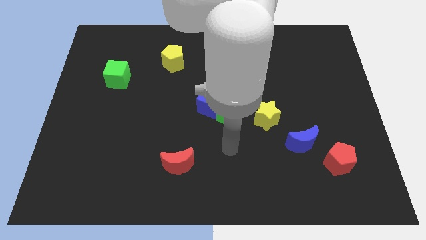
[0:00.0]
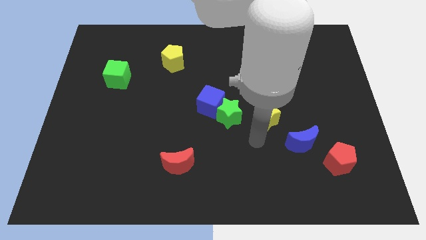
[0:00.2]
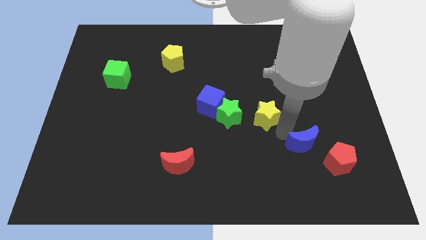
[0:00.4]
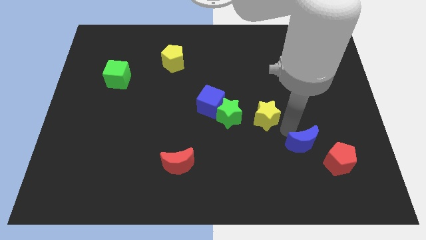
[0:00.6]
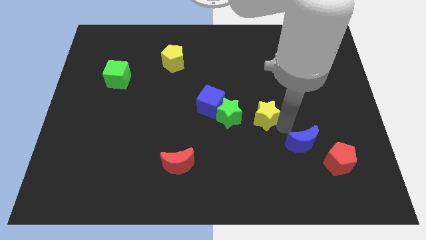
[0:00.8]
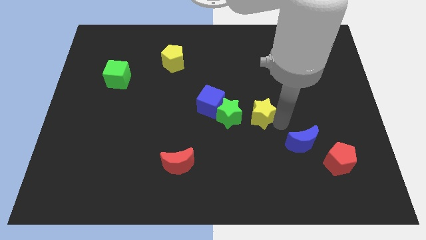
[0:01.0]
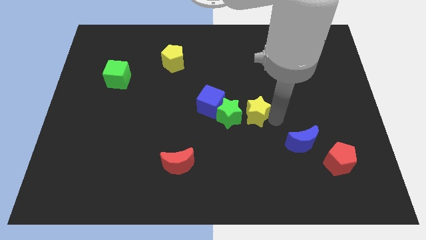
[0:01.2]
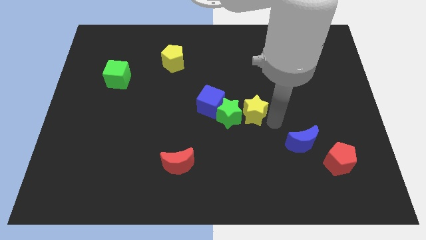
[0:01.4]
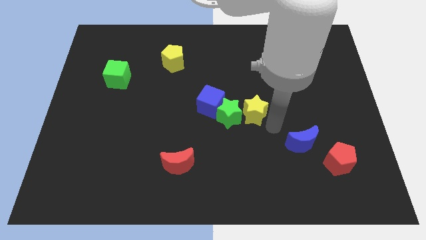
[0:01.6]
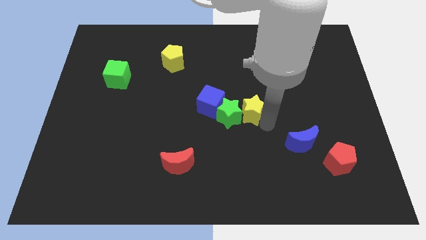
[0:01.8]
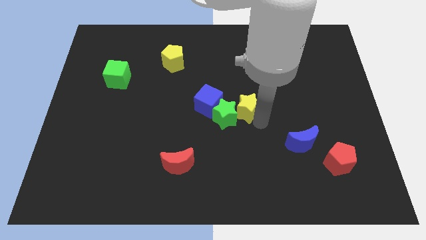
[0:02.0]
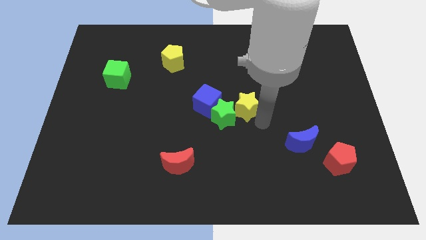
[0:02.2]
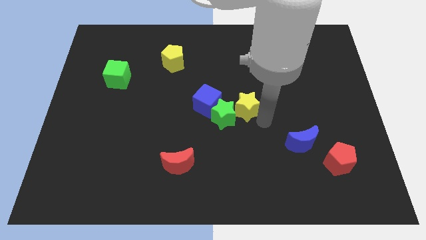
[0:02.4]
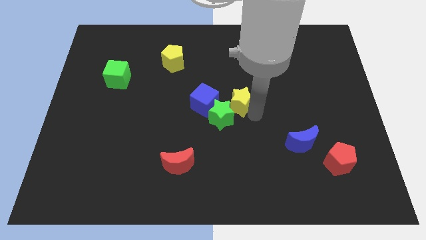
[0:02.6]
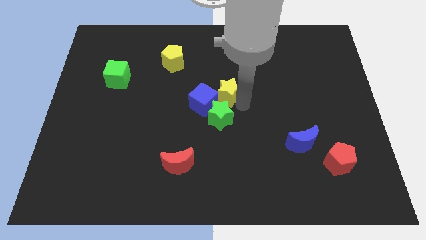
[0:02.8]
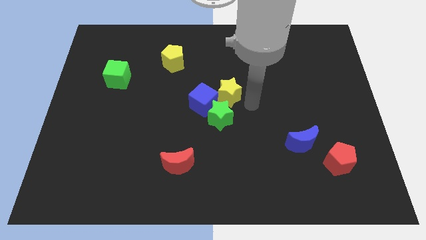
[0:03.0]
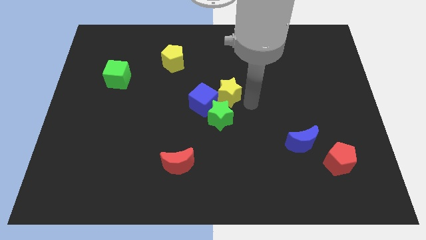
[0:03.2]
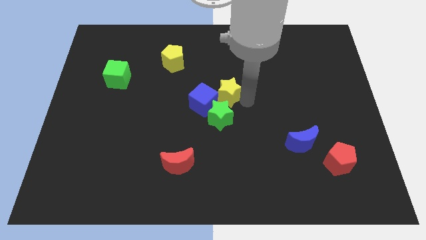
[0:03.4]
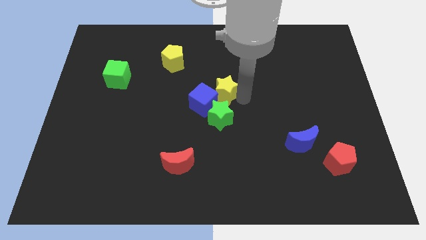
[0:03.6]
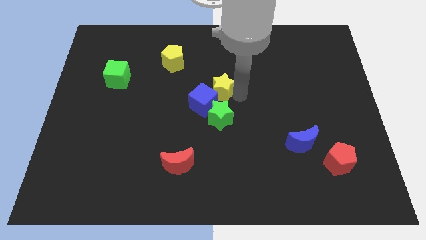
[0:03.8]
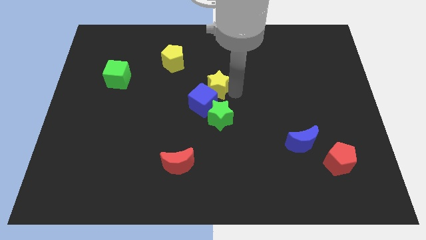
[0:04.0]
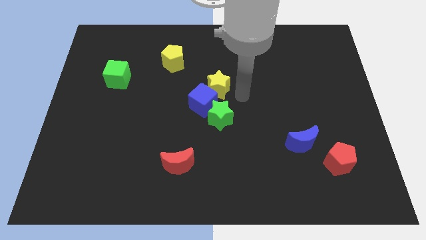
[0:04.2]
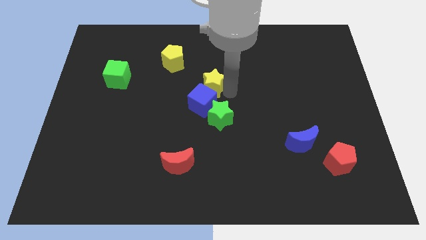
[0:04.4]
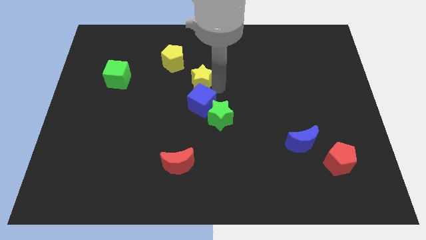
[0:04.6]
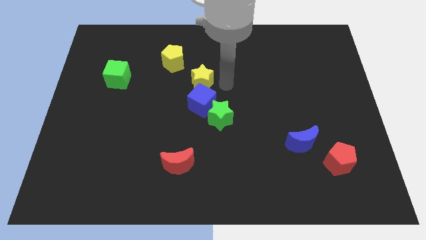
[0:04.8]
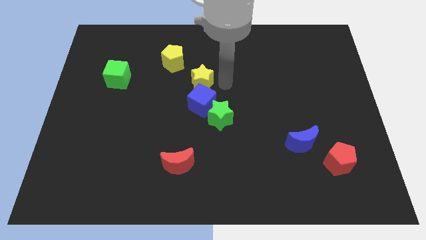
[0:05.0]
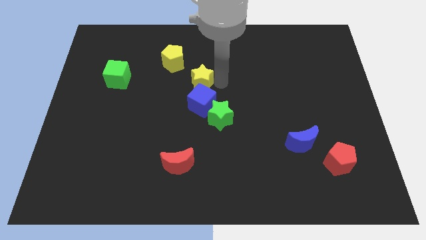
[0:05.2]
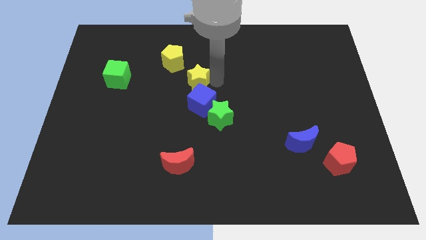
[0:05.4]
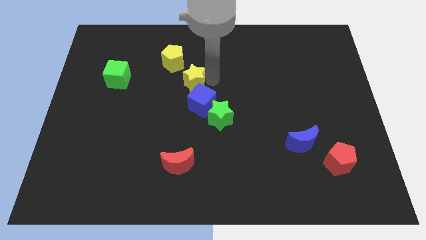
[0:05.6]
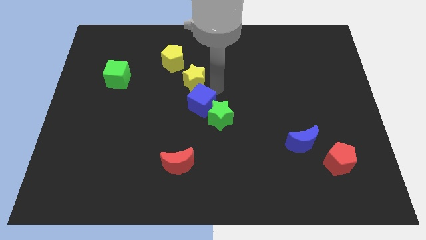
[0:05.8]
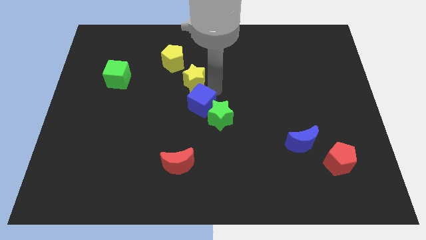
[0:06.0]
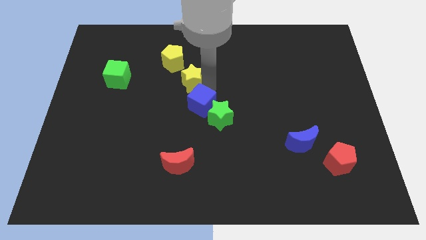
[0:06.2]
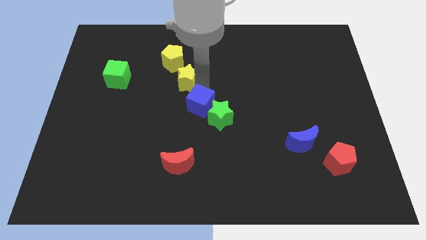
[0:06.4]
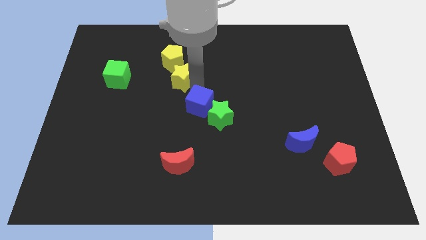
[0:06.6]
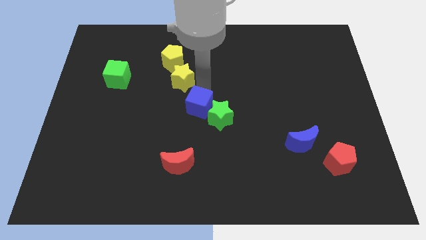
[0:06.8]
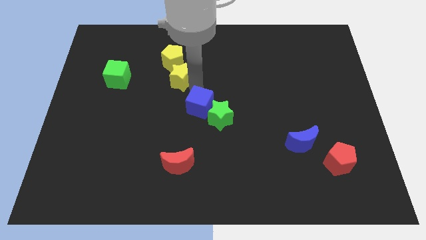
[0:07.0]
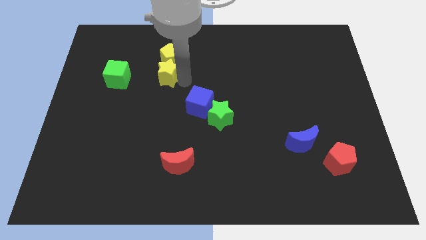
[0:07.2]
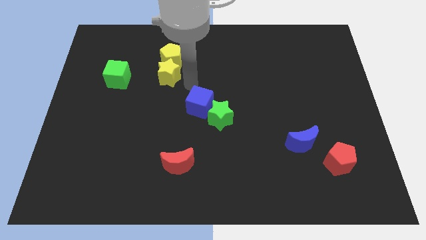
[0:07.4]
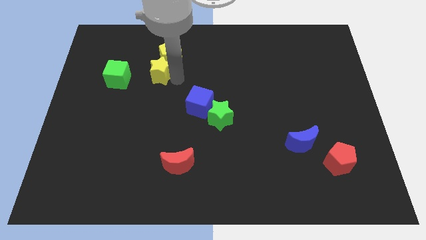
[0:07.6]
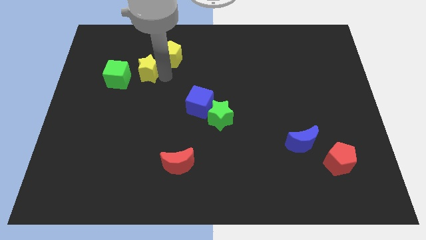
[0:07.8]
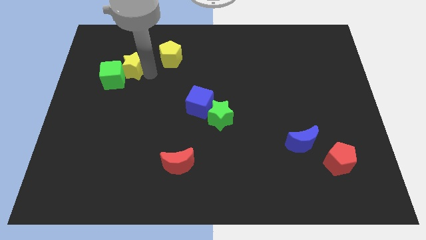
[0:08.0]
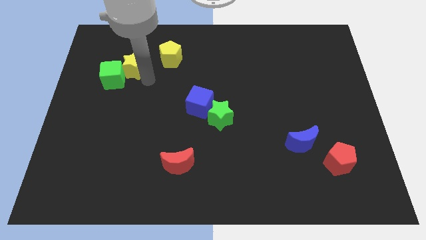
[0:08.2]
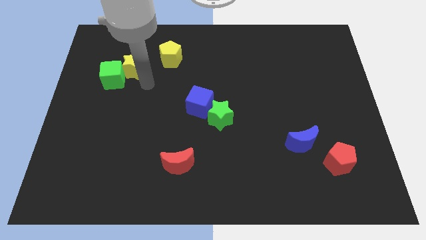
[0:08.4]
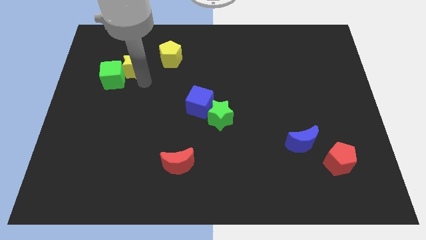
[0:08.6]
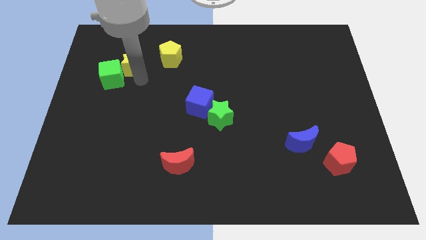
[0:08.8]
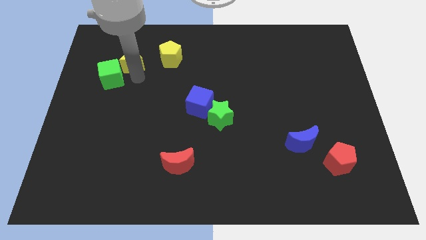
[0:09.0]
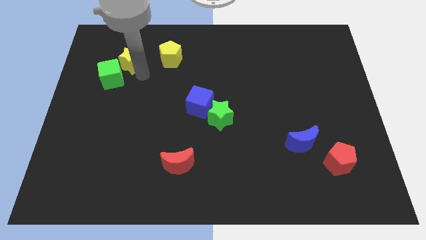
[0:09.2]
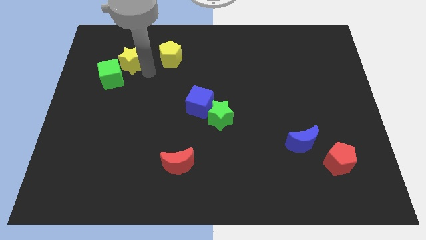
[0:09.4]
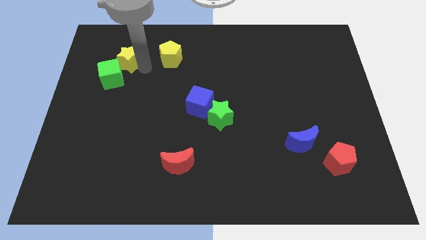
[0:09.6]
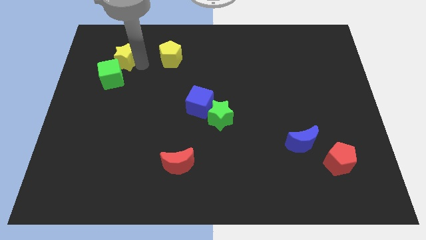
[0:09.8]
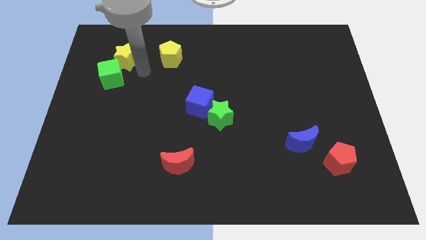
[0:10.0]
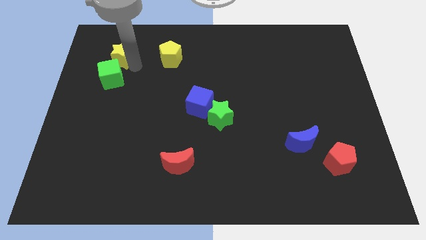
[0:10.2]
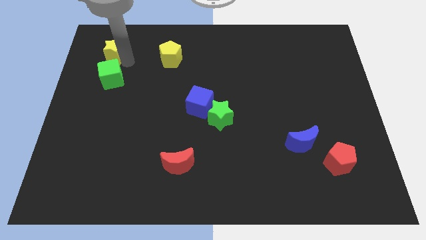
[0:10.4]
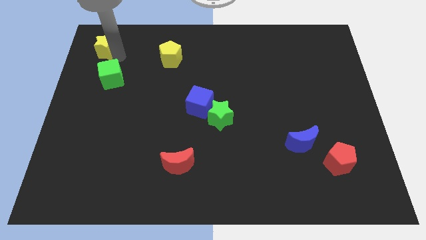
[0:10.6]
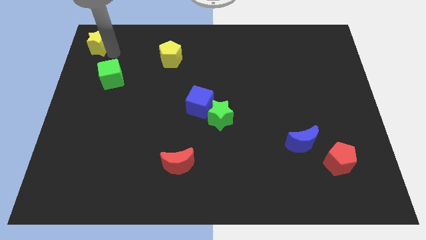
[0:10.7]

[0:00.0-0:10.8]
put the yellow star to the upper left corner
